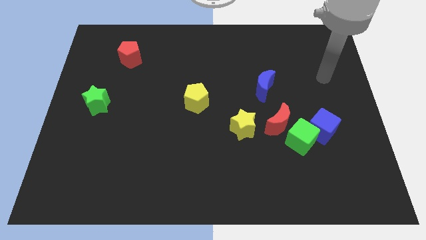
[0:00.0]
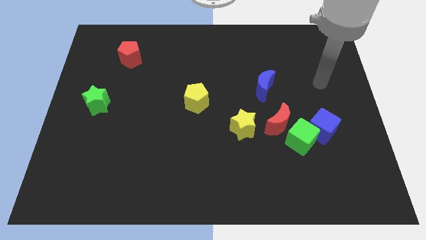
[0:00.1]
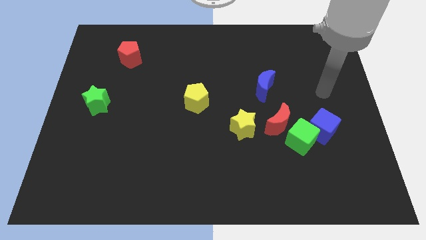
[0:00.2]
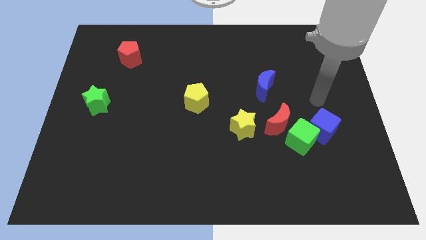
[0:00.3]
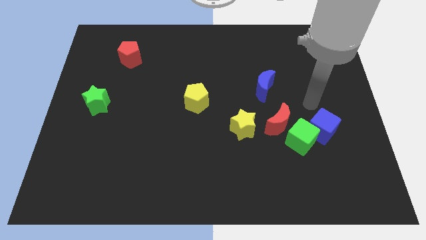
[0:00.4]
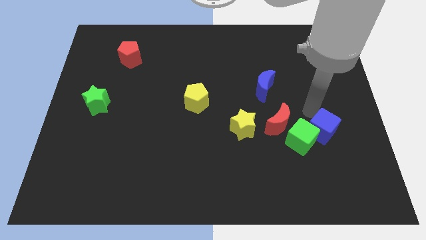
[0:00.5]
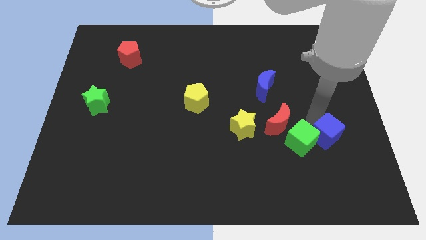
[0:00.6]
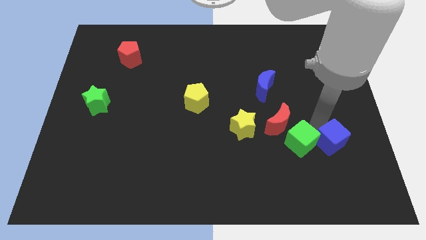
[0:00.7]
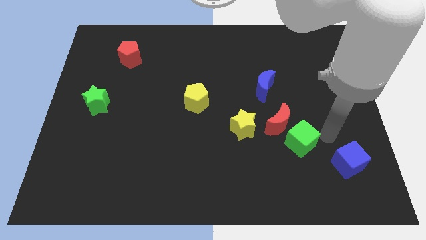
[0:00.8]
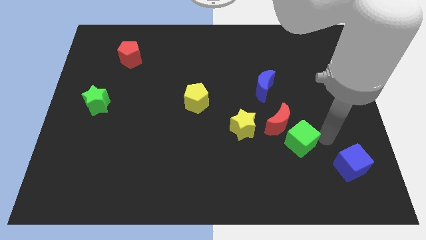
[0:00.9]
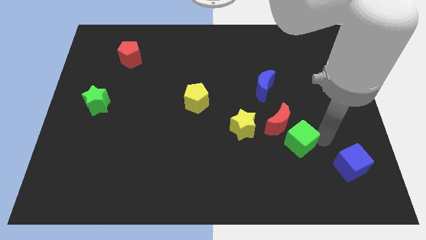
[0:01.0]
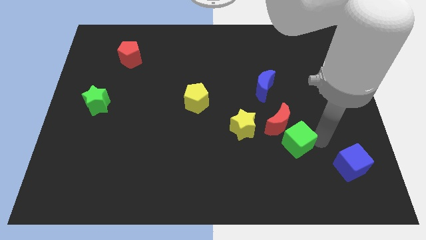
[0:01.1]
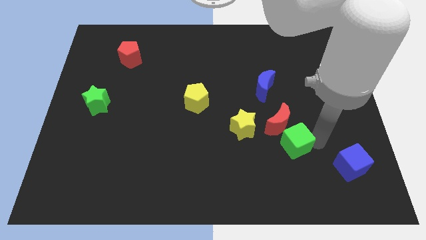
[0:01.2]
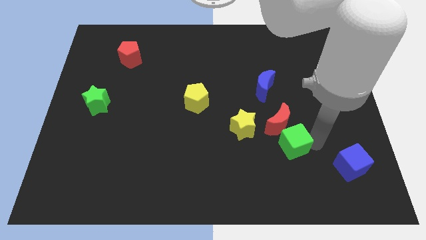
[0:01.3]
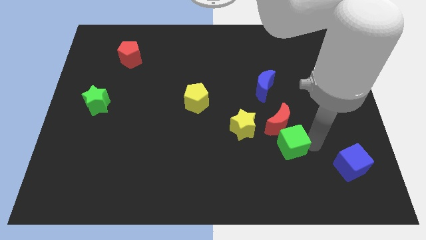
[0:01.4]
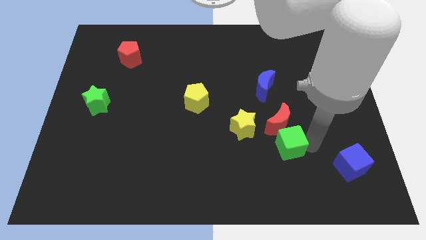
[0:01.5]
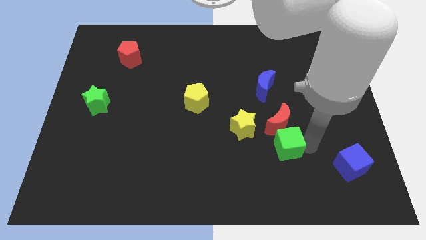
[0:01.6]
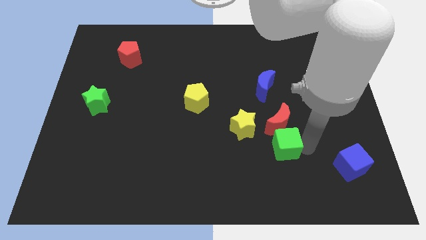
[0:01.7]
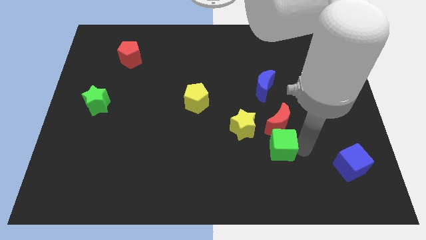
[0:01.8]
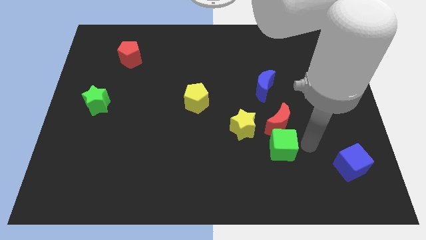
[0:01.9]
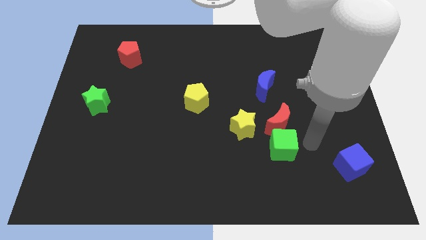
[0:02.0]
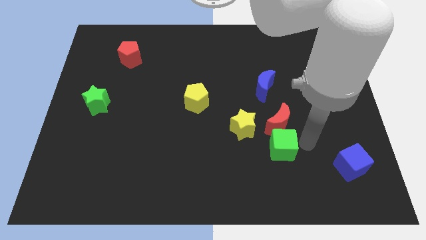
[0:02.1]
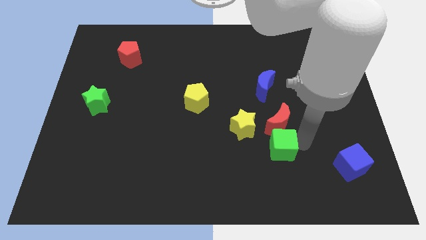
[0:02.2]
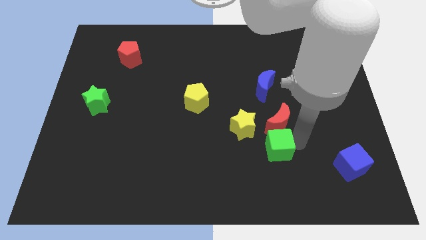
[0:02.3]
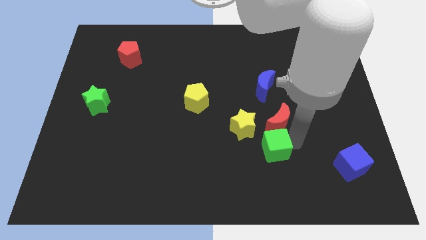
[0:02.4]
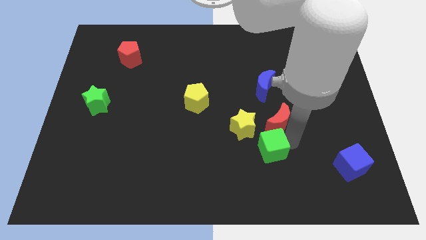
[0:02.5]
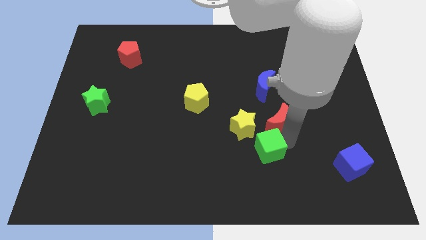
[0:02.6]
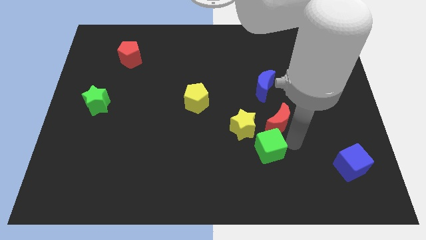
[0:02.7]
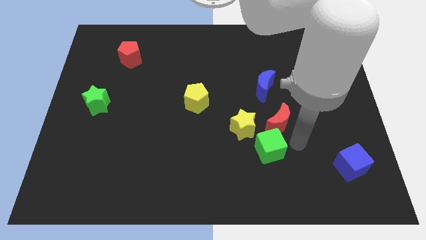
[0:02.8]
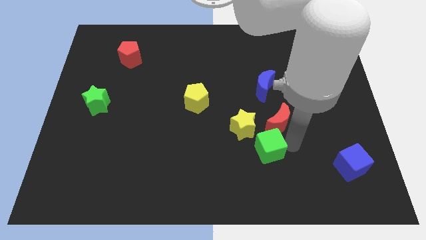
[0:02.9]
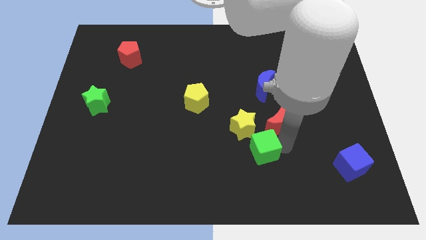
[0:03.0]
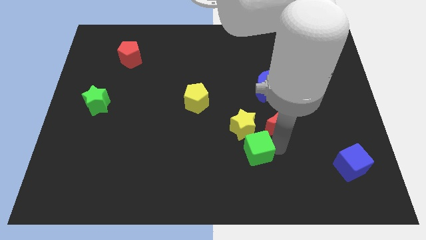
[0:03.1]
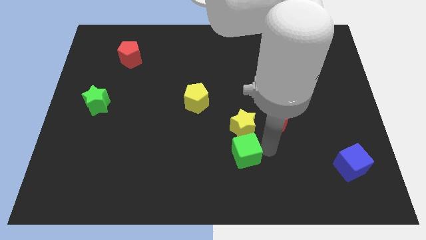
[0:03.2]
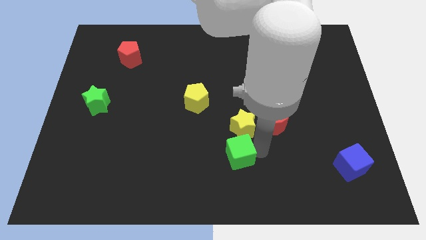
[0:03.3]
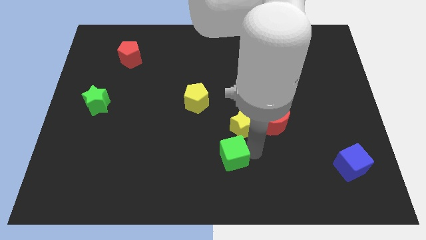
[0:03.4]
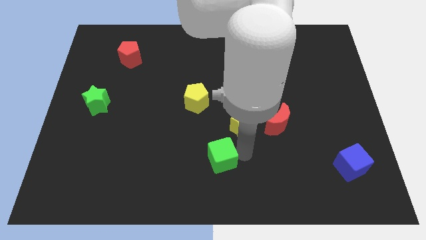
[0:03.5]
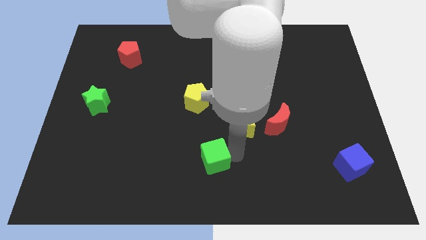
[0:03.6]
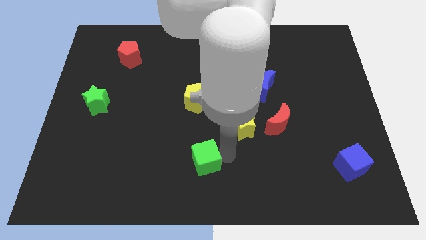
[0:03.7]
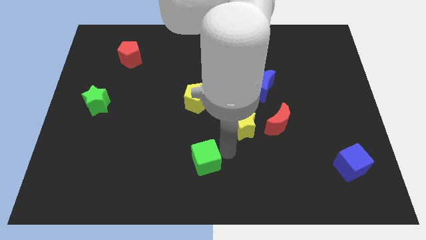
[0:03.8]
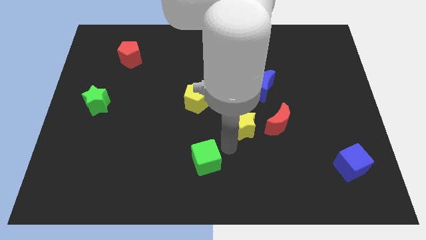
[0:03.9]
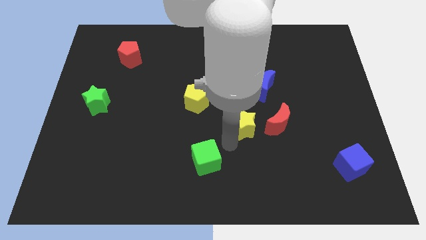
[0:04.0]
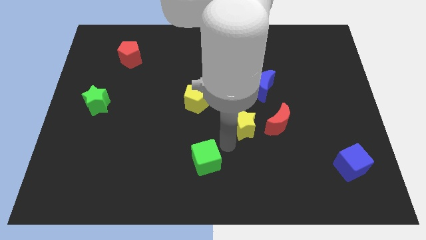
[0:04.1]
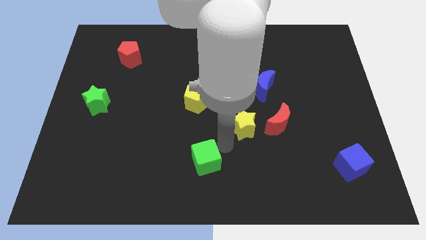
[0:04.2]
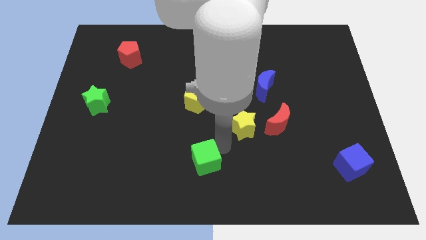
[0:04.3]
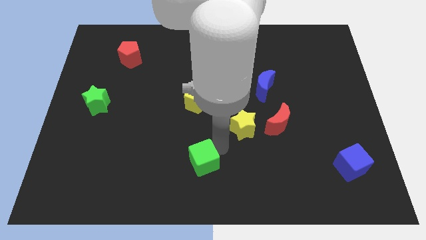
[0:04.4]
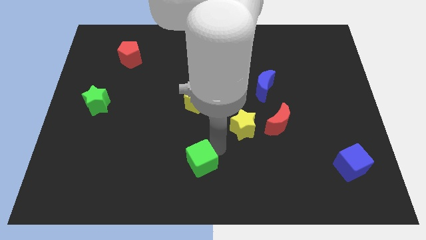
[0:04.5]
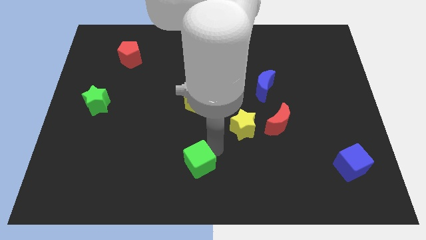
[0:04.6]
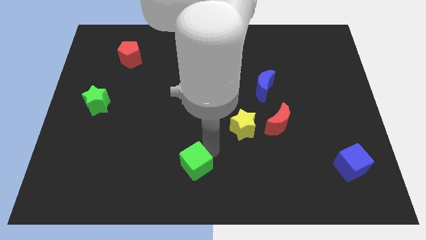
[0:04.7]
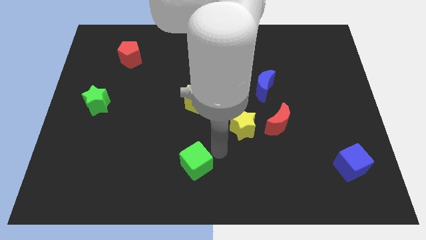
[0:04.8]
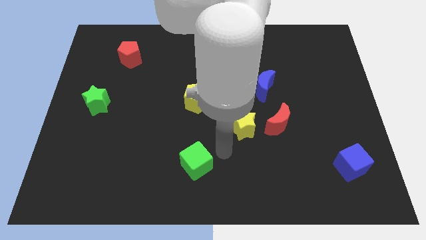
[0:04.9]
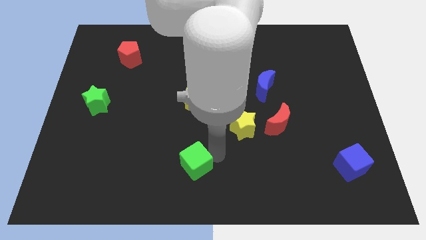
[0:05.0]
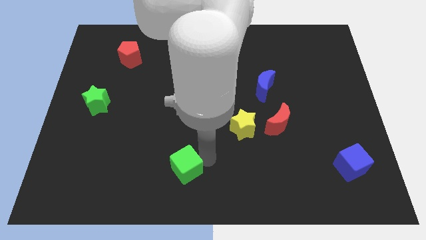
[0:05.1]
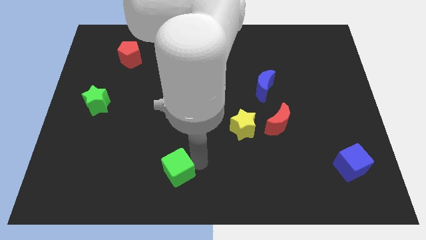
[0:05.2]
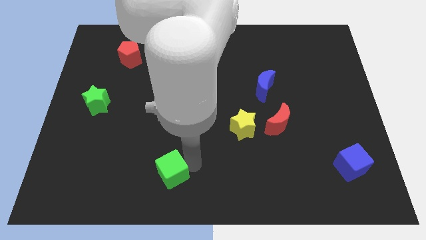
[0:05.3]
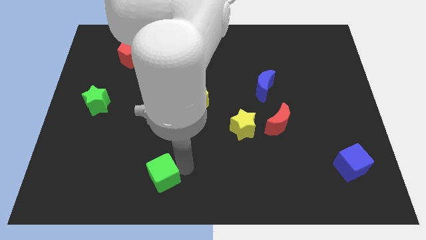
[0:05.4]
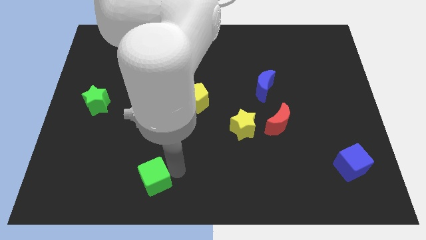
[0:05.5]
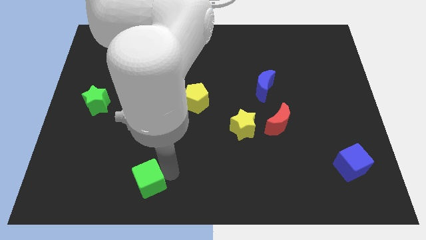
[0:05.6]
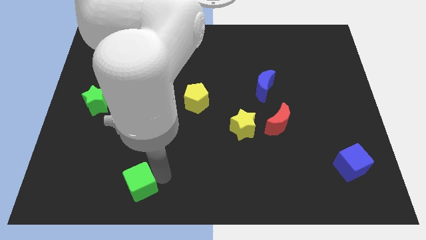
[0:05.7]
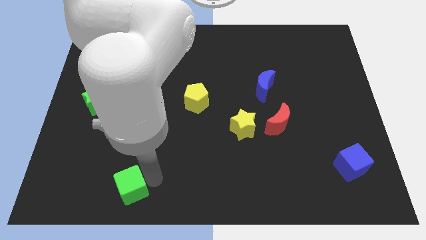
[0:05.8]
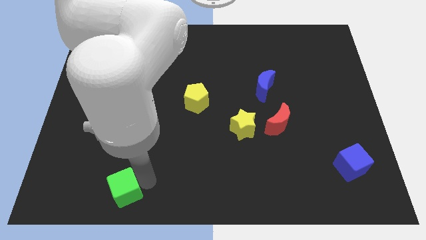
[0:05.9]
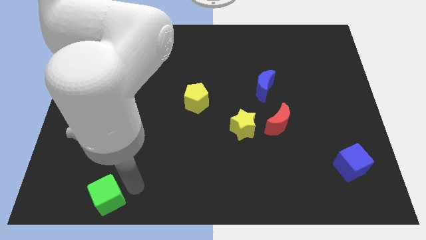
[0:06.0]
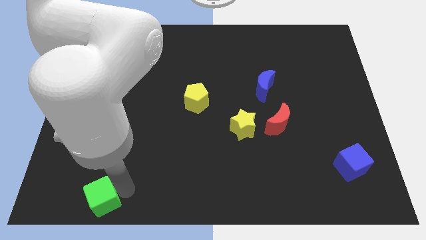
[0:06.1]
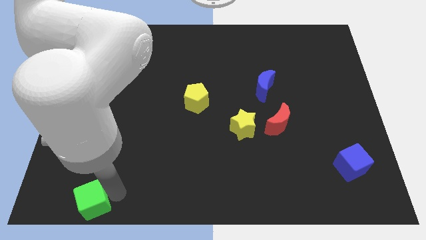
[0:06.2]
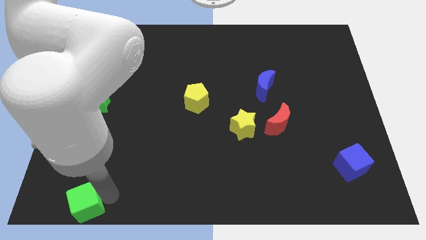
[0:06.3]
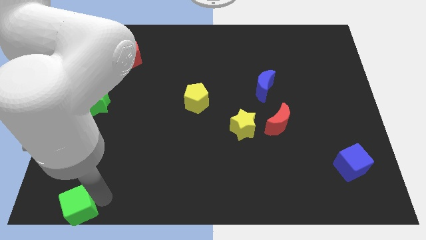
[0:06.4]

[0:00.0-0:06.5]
move the green cube to the lower left corner
